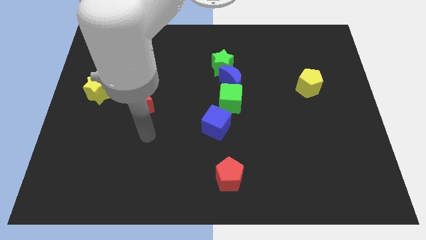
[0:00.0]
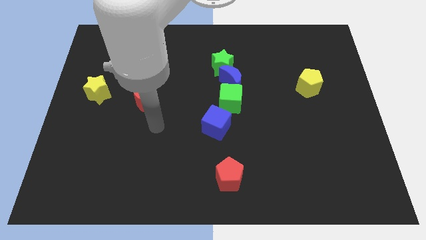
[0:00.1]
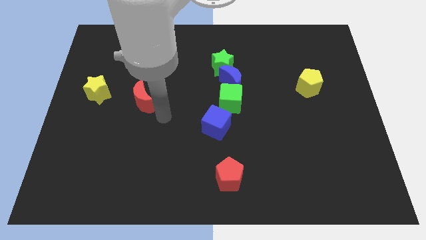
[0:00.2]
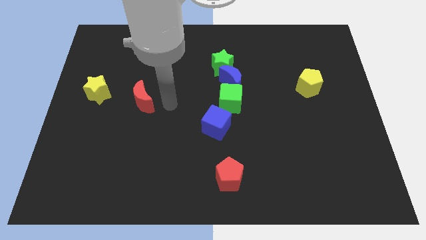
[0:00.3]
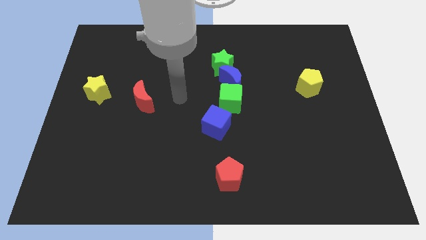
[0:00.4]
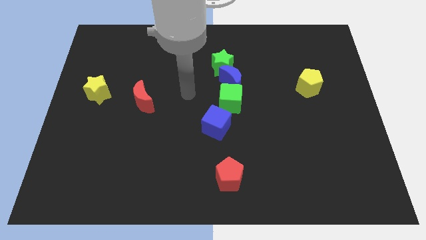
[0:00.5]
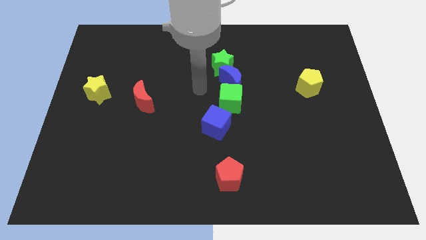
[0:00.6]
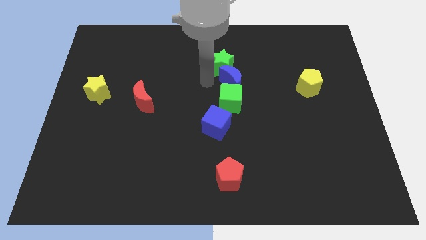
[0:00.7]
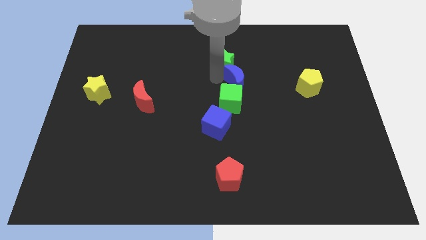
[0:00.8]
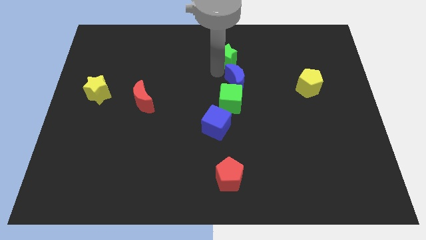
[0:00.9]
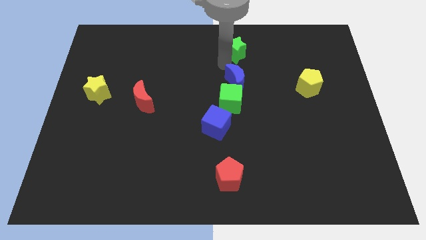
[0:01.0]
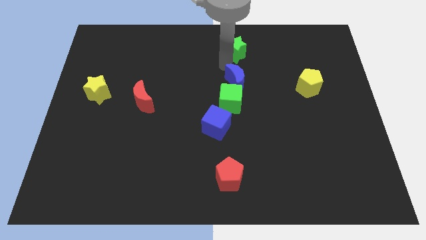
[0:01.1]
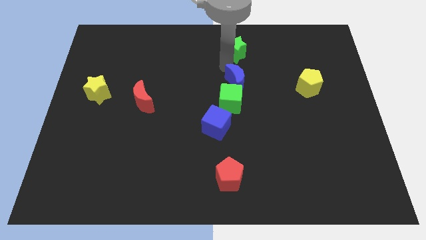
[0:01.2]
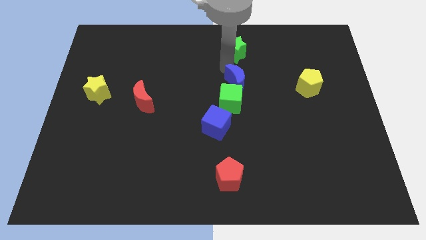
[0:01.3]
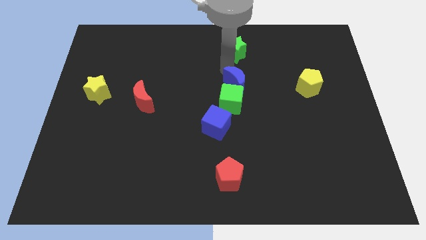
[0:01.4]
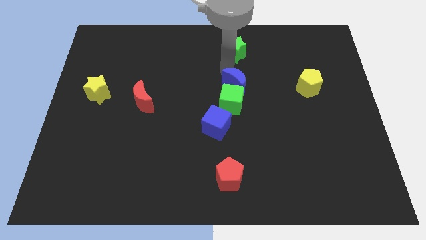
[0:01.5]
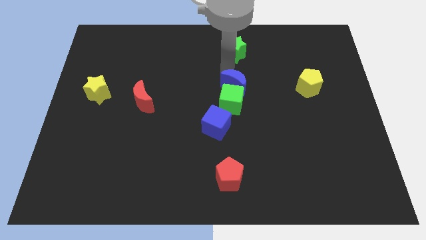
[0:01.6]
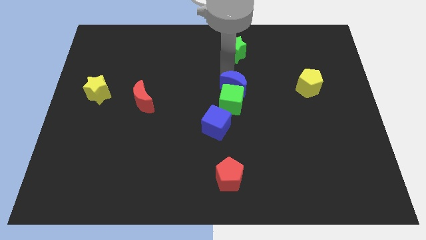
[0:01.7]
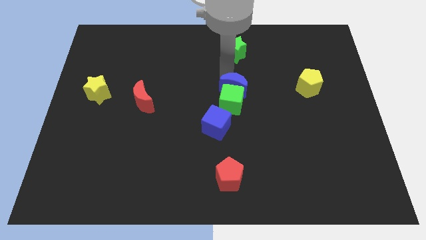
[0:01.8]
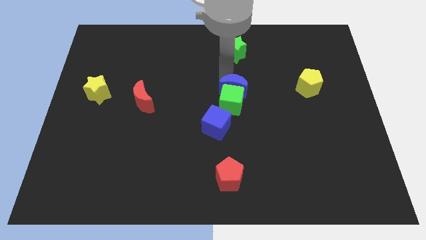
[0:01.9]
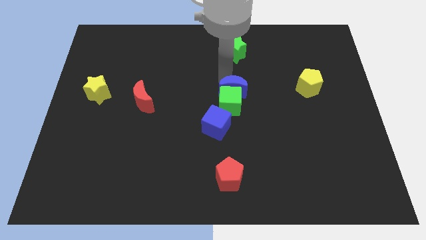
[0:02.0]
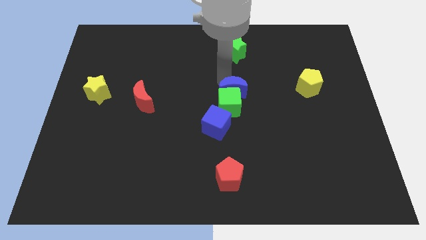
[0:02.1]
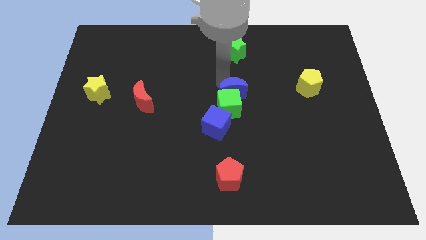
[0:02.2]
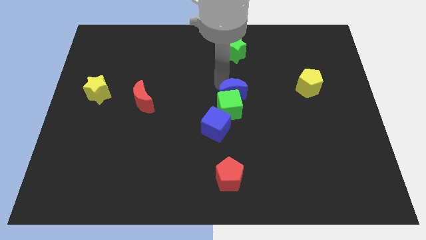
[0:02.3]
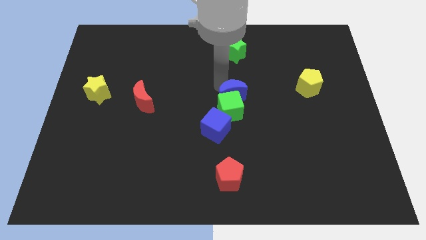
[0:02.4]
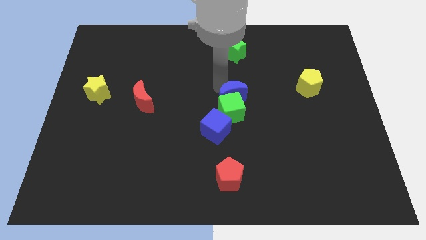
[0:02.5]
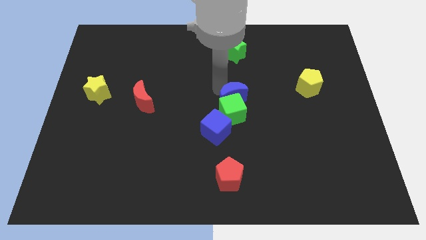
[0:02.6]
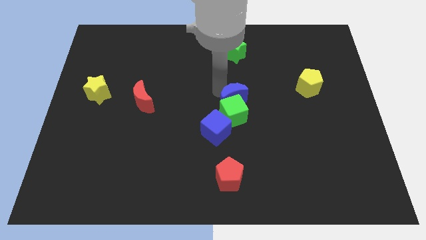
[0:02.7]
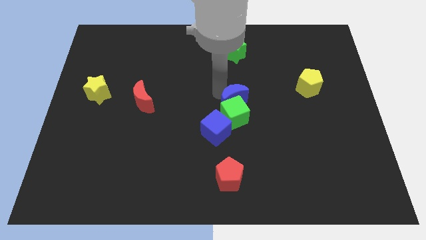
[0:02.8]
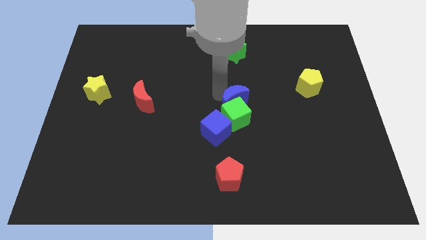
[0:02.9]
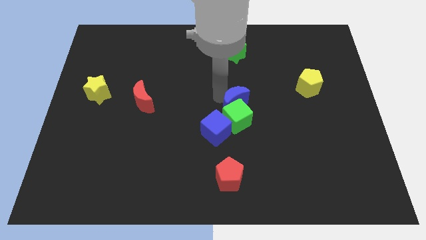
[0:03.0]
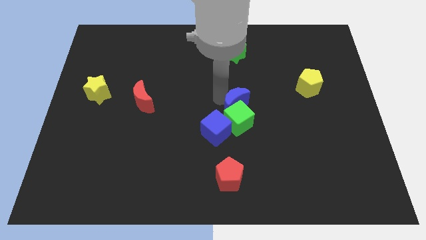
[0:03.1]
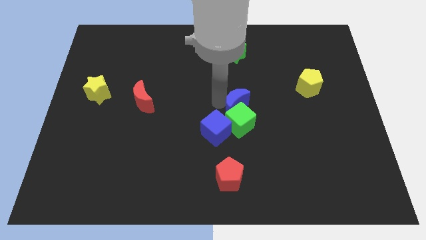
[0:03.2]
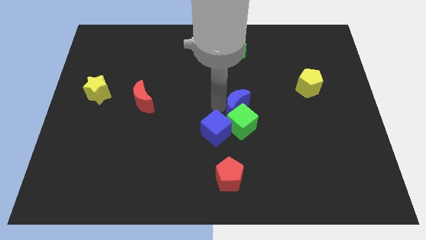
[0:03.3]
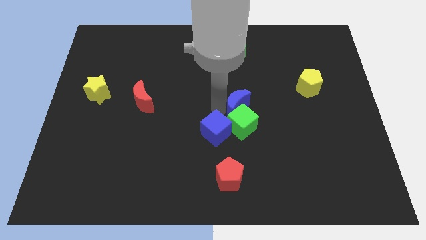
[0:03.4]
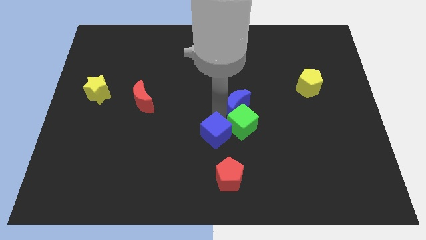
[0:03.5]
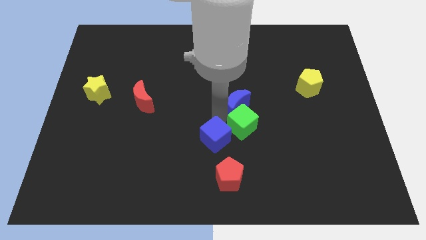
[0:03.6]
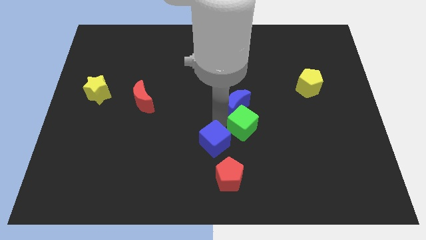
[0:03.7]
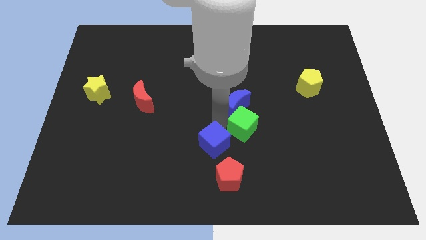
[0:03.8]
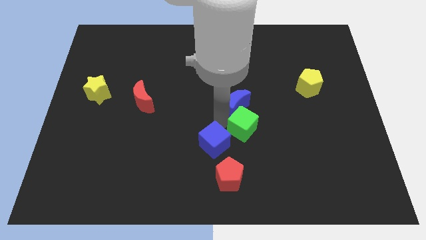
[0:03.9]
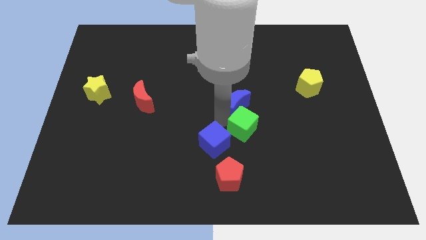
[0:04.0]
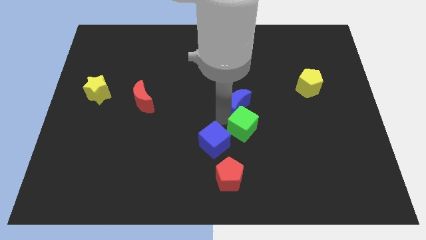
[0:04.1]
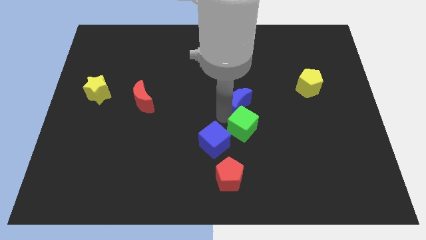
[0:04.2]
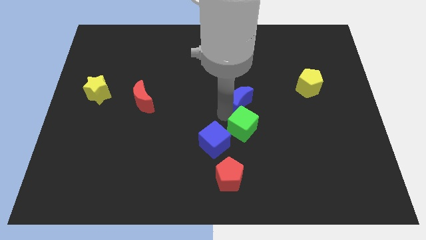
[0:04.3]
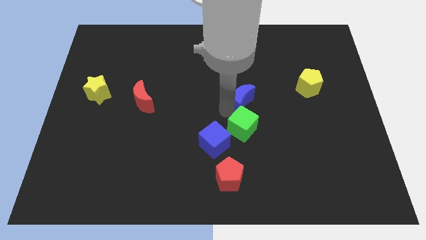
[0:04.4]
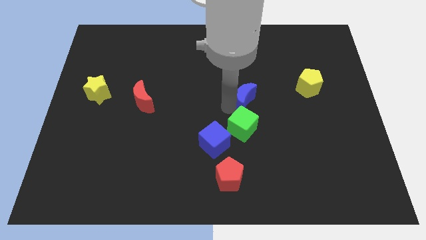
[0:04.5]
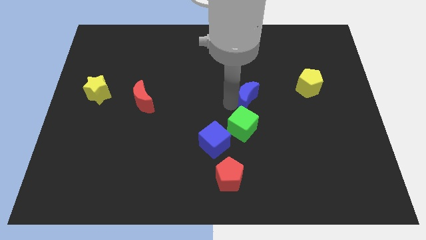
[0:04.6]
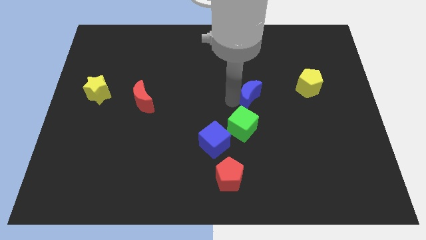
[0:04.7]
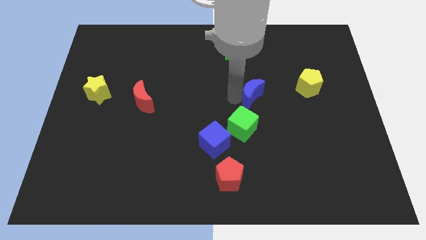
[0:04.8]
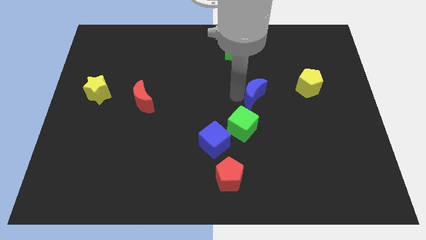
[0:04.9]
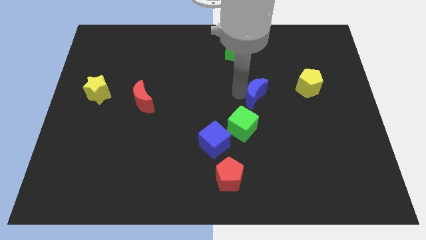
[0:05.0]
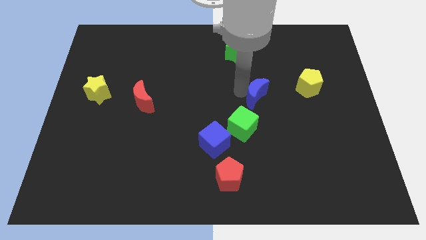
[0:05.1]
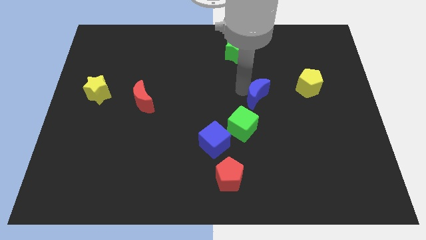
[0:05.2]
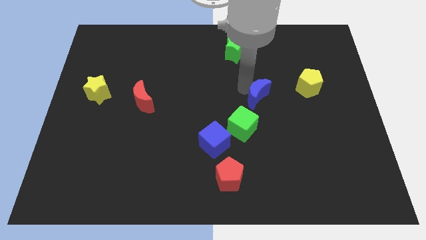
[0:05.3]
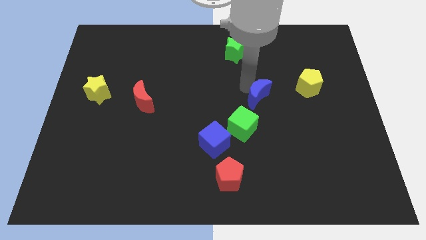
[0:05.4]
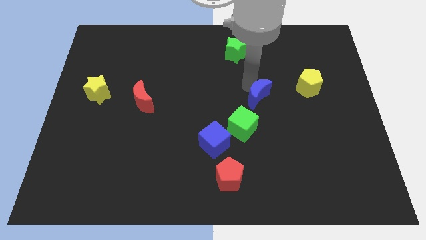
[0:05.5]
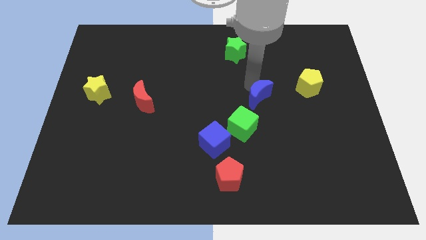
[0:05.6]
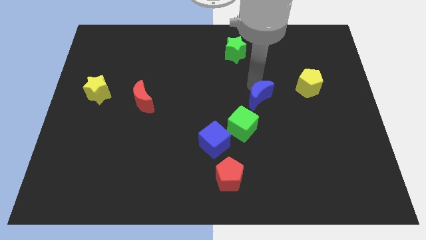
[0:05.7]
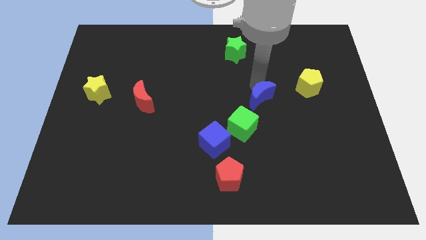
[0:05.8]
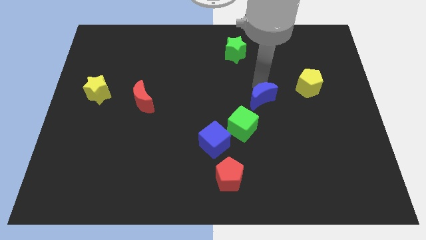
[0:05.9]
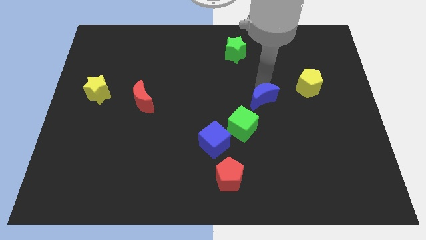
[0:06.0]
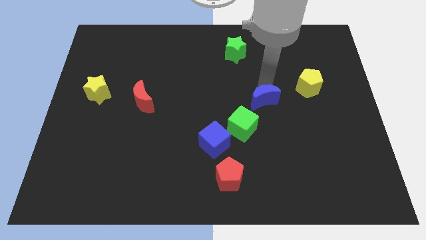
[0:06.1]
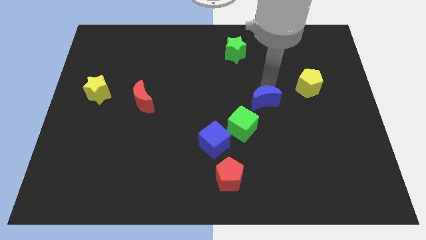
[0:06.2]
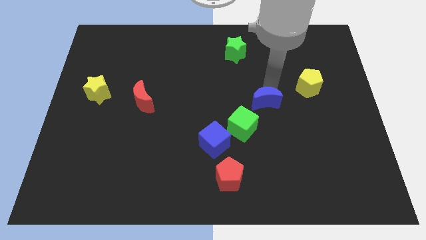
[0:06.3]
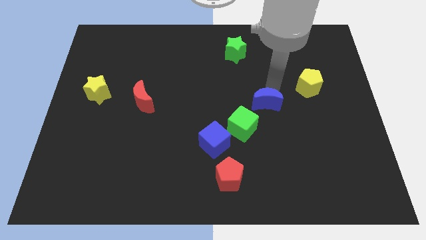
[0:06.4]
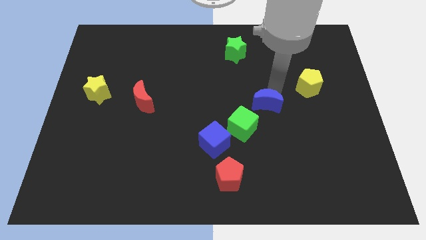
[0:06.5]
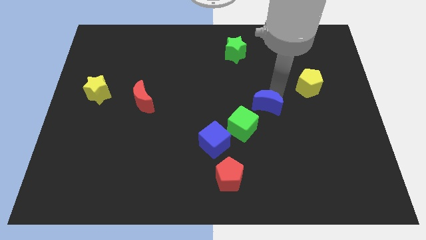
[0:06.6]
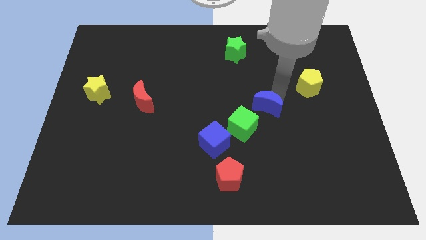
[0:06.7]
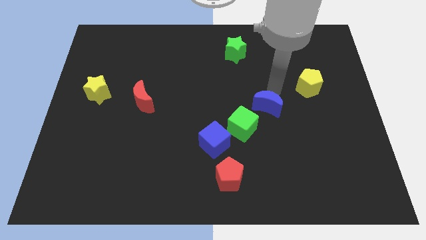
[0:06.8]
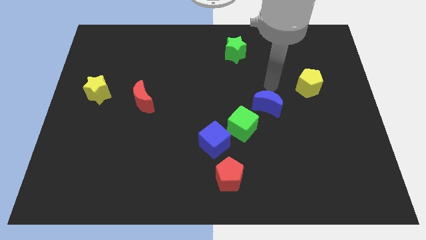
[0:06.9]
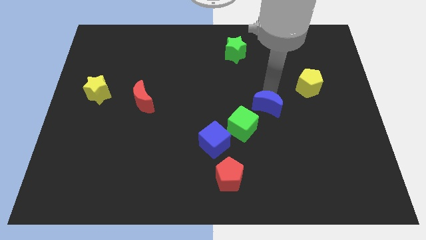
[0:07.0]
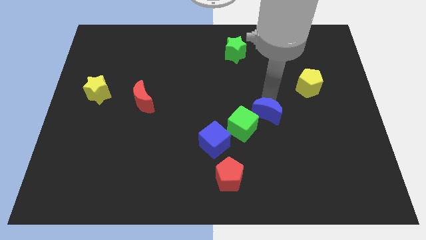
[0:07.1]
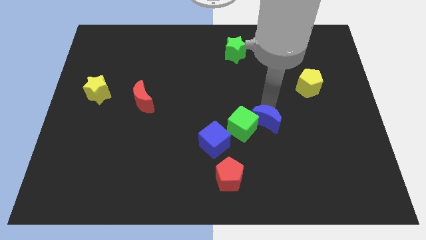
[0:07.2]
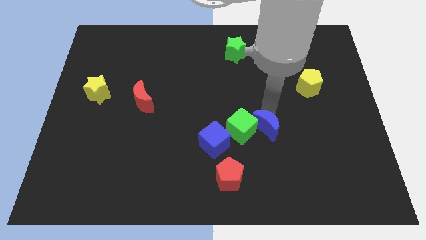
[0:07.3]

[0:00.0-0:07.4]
move the blue moon just right of the blue cube

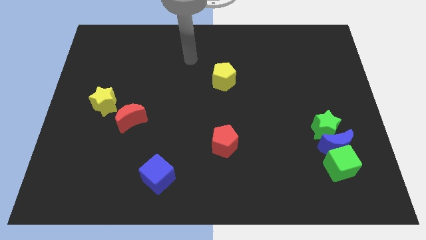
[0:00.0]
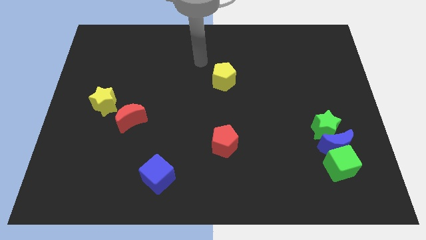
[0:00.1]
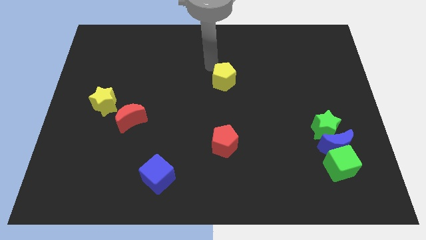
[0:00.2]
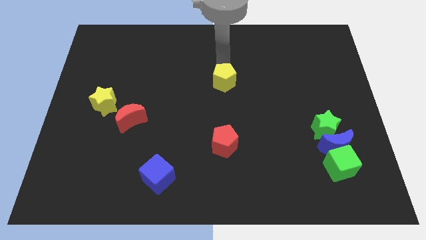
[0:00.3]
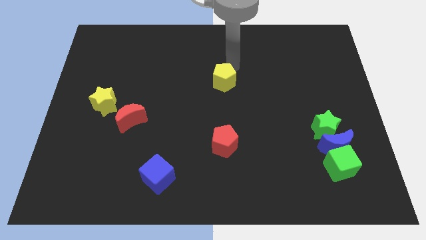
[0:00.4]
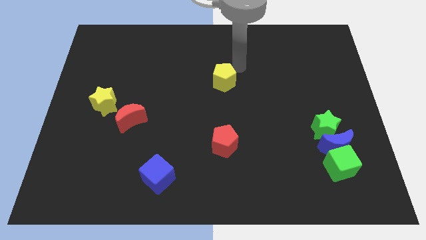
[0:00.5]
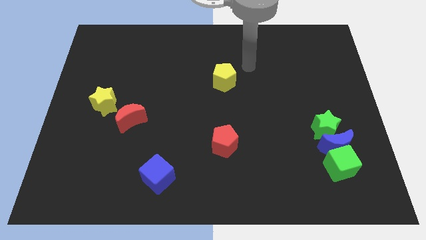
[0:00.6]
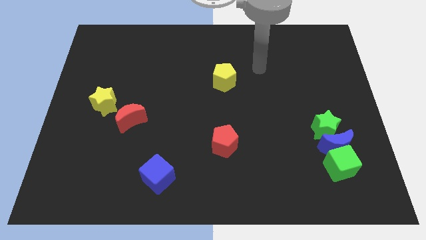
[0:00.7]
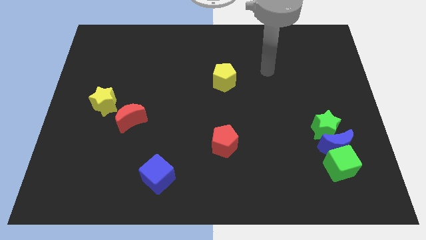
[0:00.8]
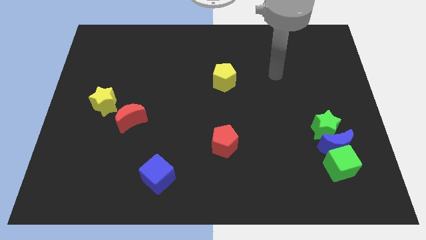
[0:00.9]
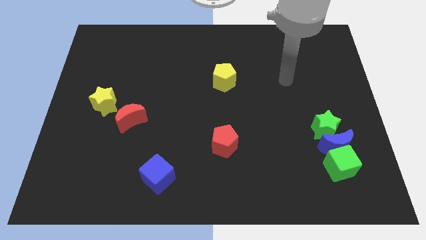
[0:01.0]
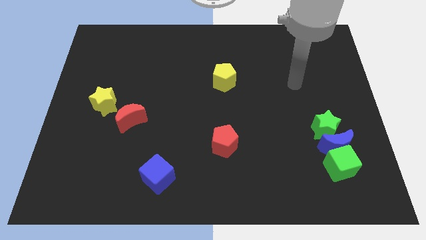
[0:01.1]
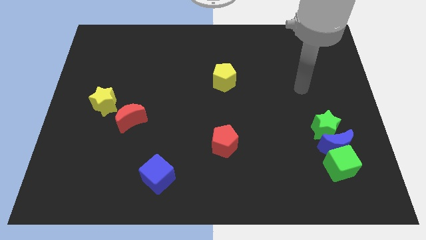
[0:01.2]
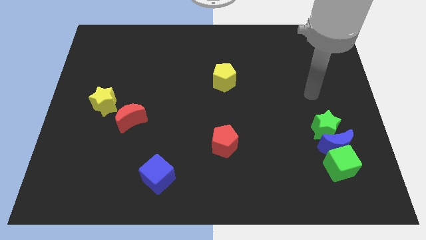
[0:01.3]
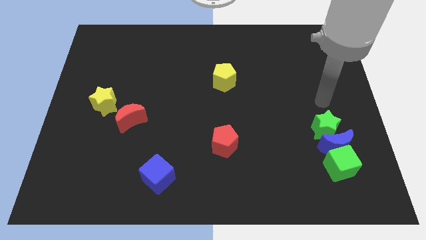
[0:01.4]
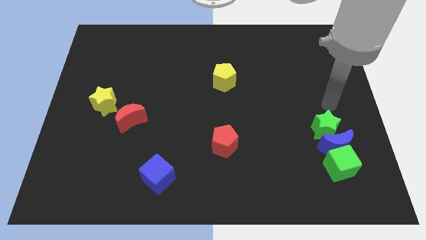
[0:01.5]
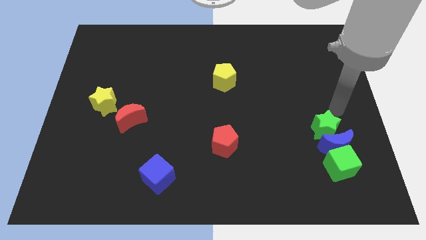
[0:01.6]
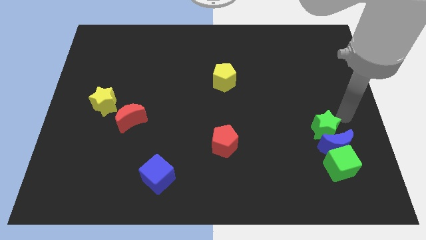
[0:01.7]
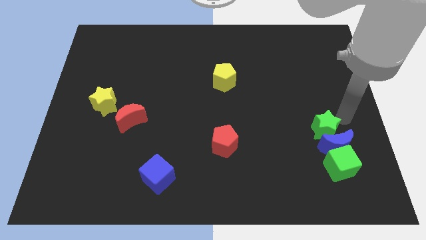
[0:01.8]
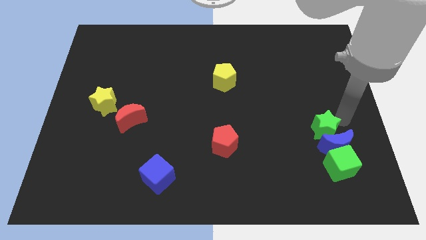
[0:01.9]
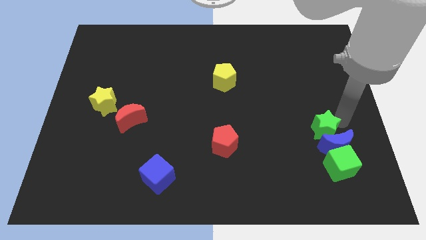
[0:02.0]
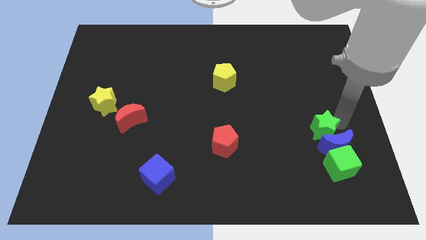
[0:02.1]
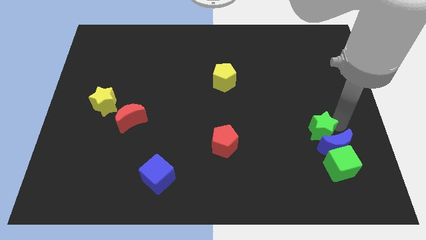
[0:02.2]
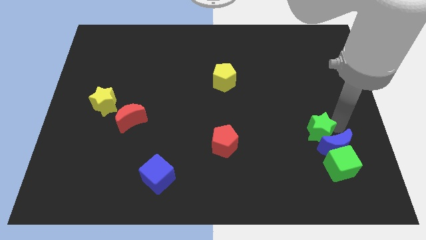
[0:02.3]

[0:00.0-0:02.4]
put the green star to the left of the blue moon
